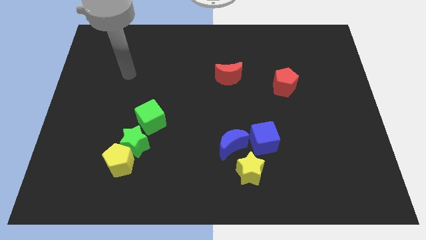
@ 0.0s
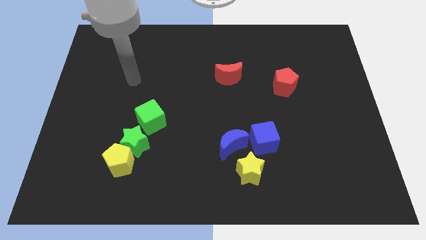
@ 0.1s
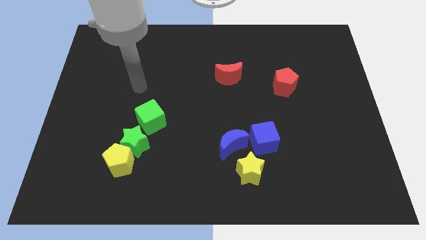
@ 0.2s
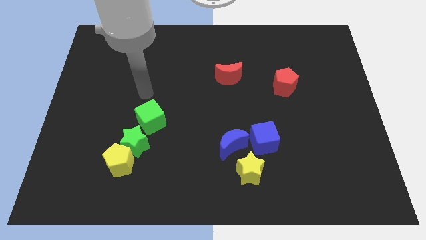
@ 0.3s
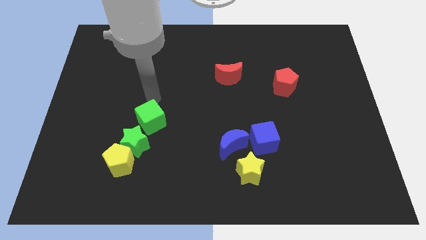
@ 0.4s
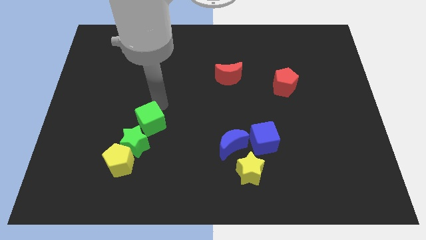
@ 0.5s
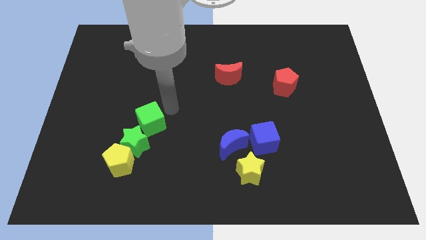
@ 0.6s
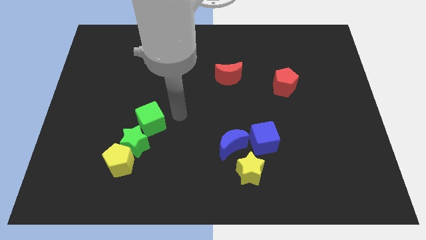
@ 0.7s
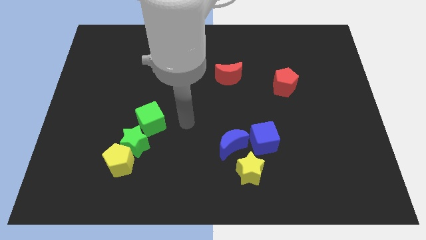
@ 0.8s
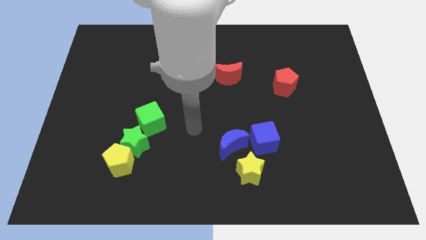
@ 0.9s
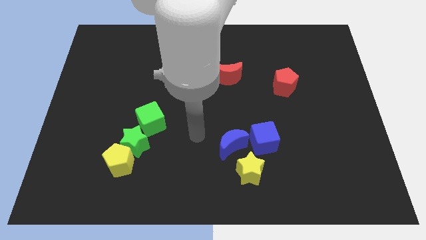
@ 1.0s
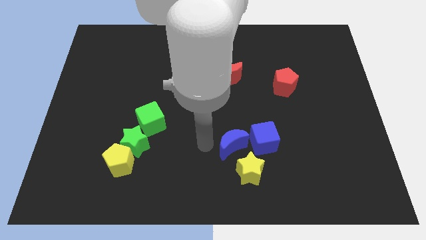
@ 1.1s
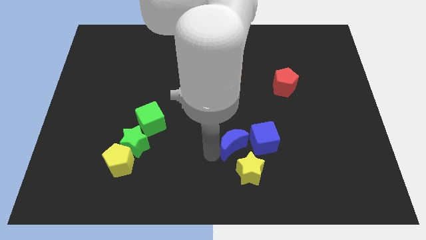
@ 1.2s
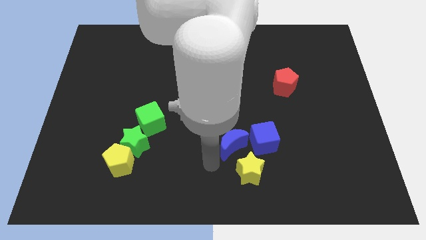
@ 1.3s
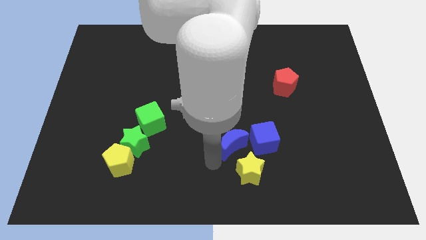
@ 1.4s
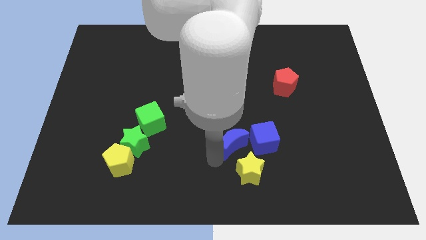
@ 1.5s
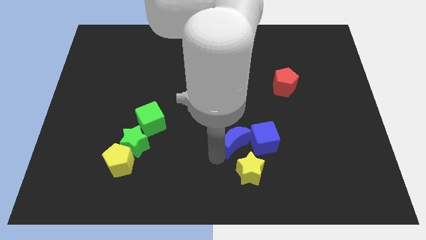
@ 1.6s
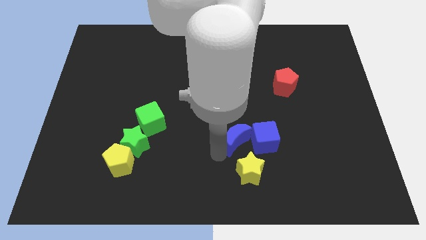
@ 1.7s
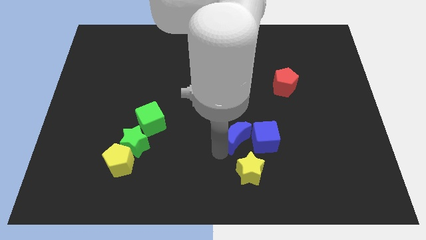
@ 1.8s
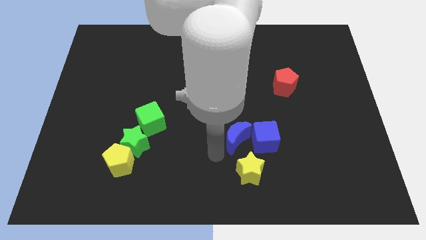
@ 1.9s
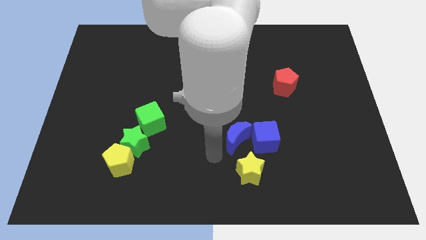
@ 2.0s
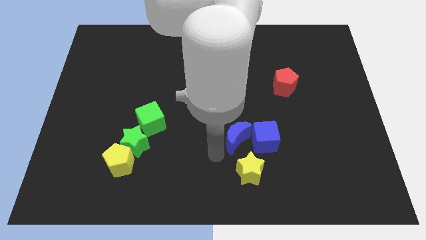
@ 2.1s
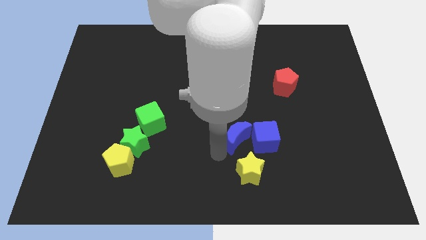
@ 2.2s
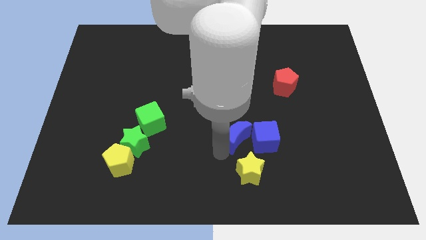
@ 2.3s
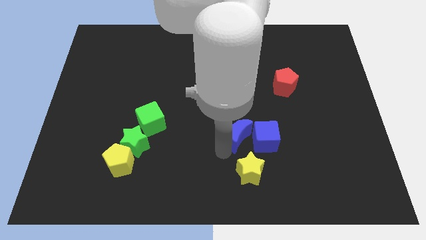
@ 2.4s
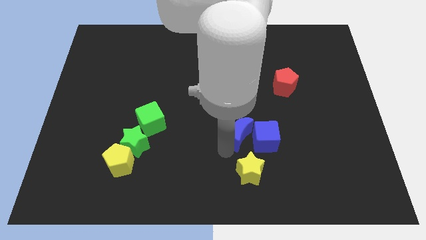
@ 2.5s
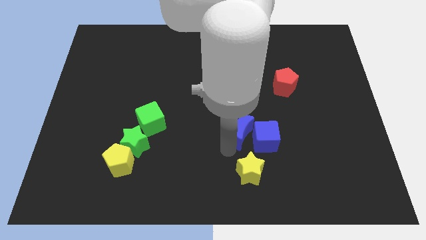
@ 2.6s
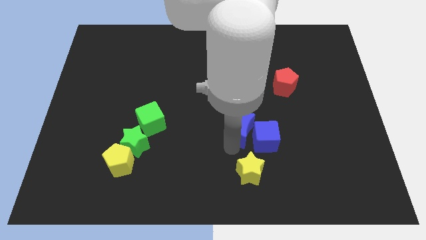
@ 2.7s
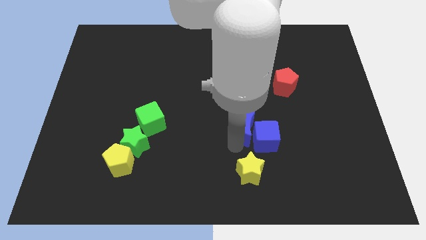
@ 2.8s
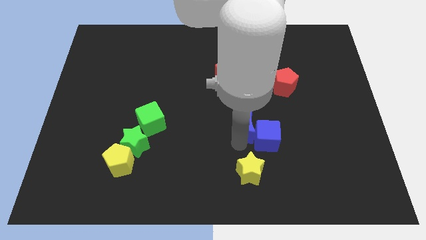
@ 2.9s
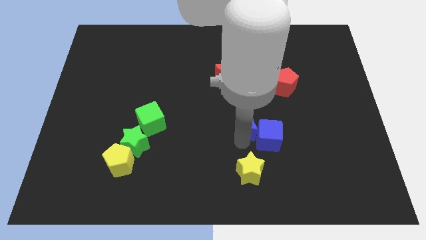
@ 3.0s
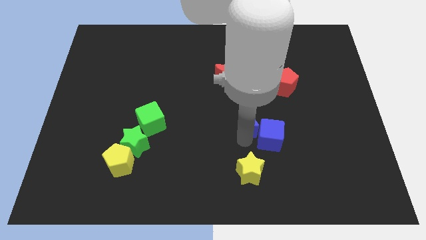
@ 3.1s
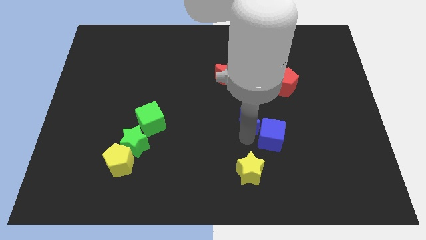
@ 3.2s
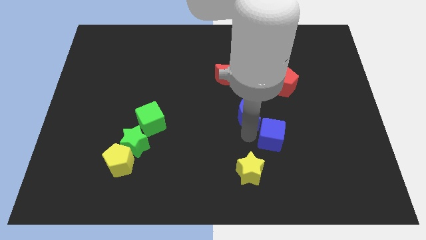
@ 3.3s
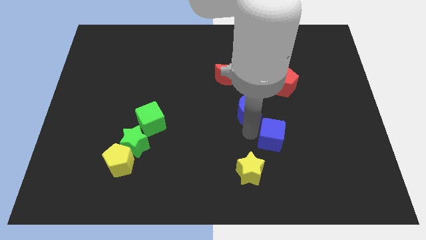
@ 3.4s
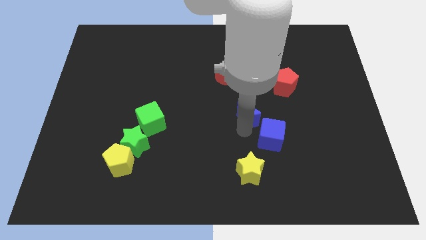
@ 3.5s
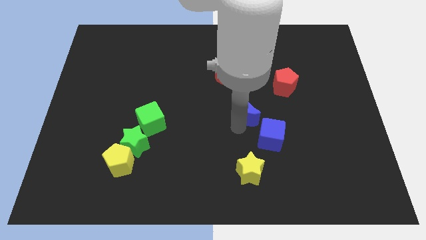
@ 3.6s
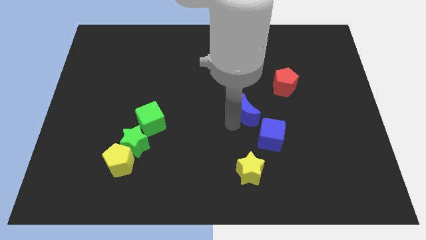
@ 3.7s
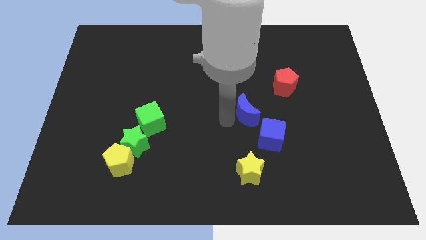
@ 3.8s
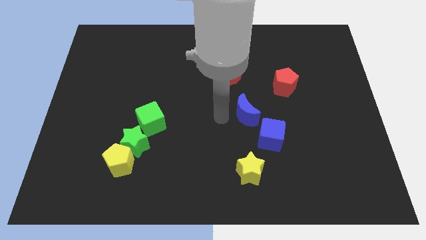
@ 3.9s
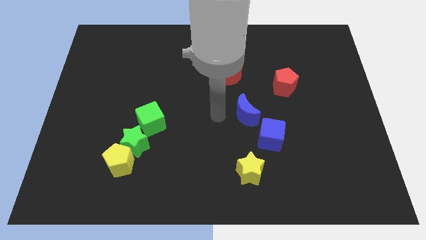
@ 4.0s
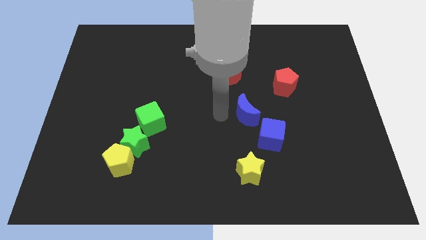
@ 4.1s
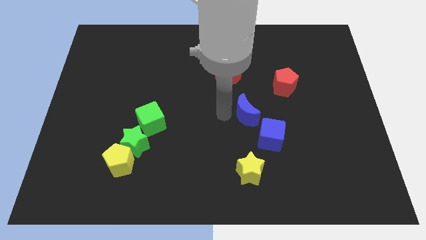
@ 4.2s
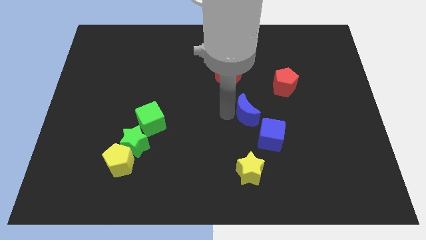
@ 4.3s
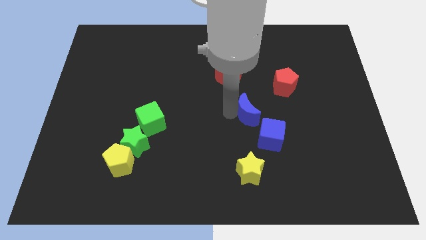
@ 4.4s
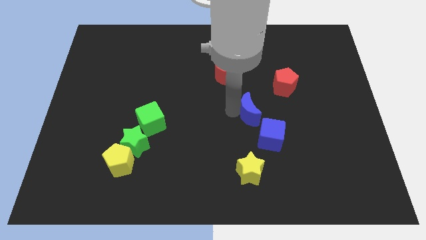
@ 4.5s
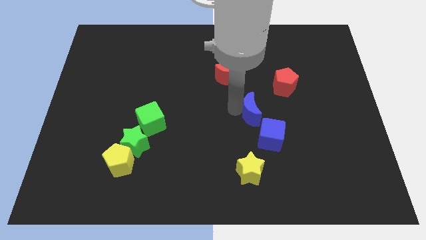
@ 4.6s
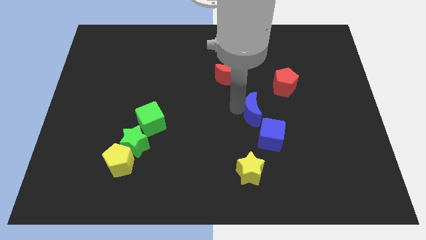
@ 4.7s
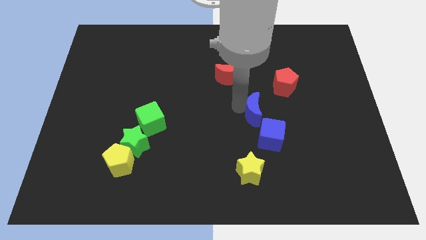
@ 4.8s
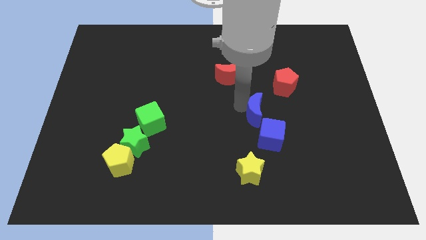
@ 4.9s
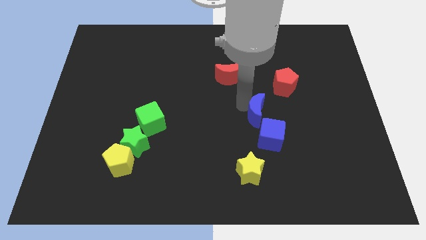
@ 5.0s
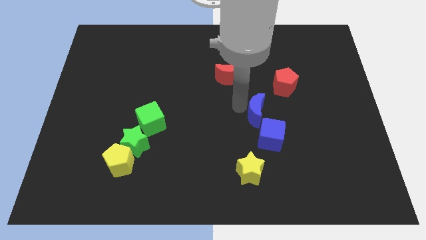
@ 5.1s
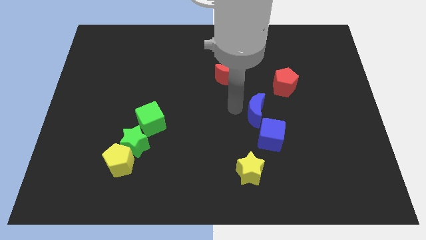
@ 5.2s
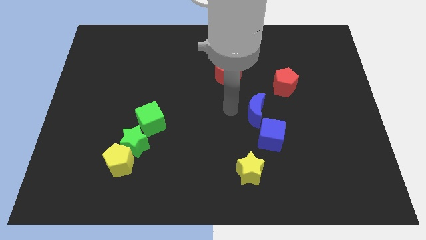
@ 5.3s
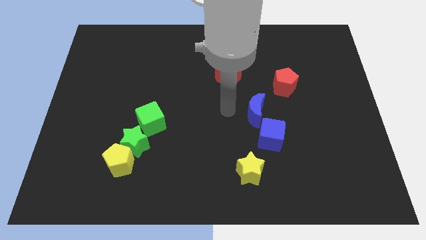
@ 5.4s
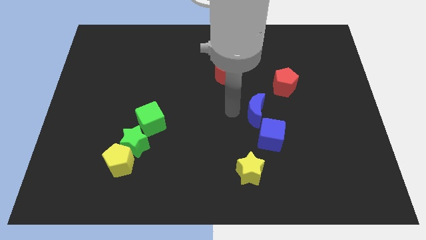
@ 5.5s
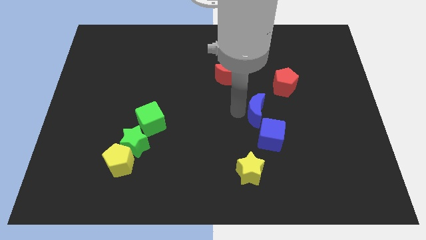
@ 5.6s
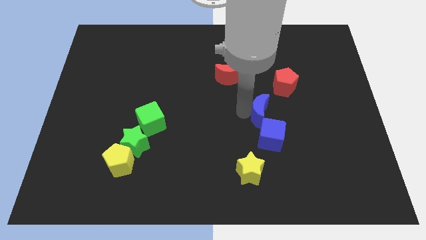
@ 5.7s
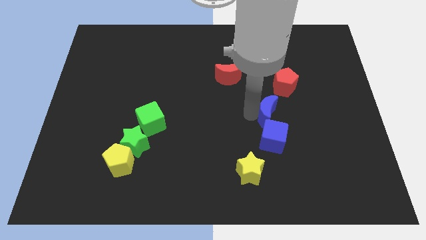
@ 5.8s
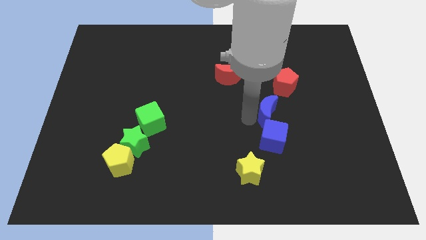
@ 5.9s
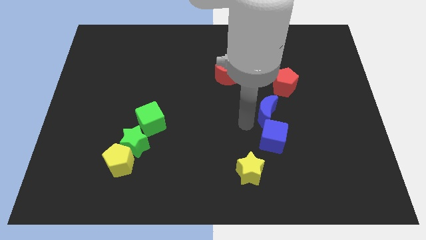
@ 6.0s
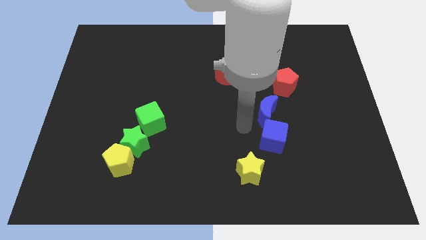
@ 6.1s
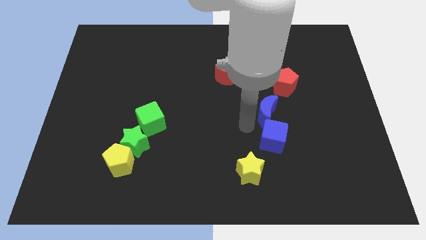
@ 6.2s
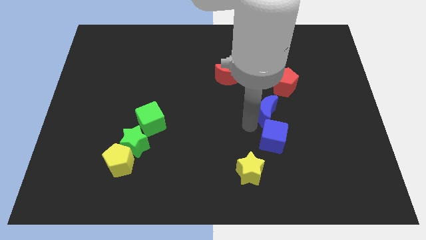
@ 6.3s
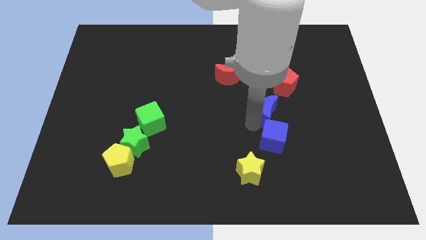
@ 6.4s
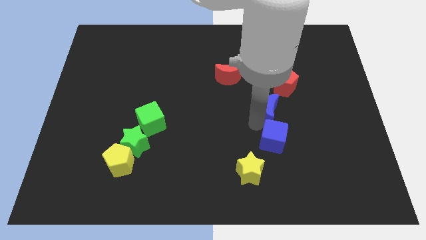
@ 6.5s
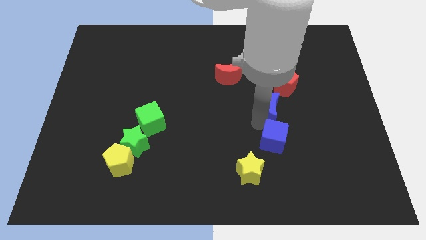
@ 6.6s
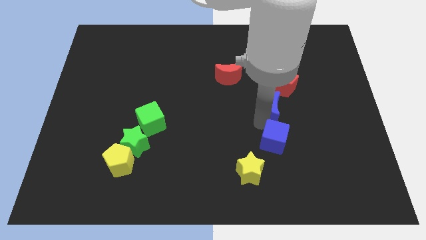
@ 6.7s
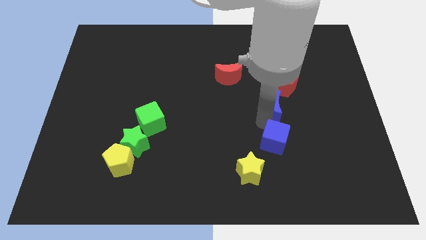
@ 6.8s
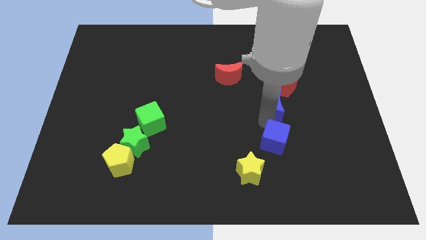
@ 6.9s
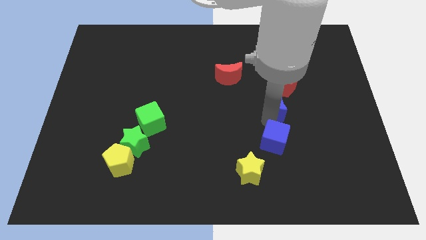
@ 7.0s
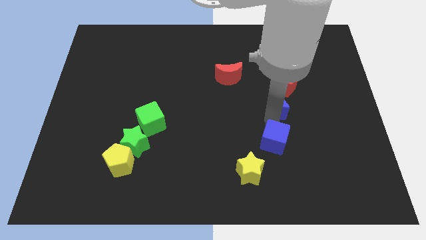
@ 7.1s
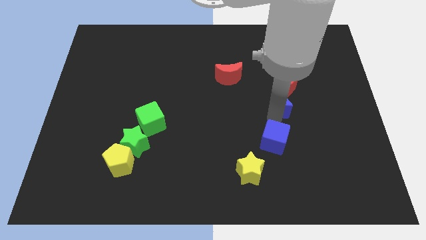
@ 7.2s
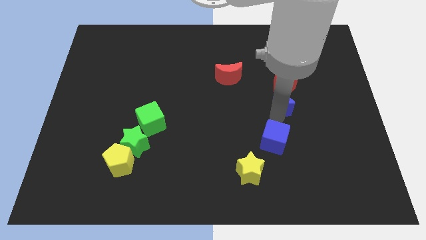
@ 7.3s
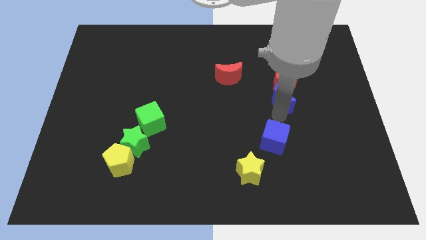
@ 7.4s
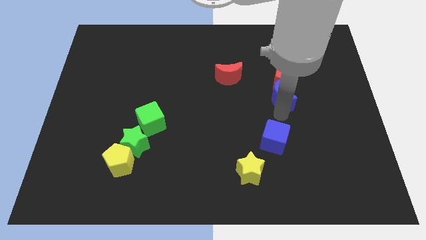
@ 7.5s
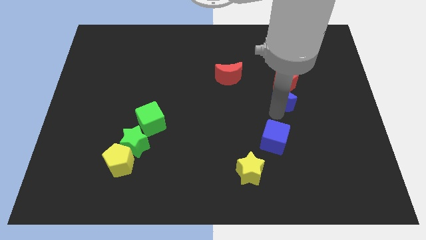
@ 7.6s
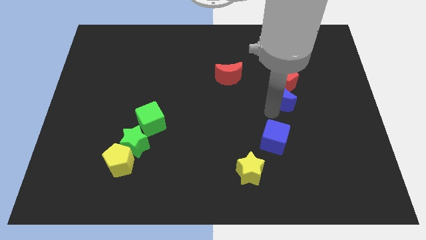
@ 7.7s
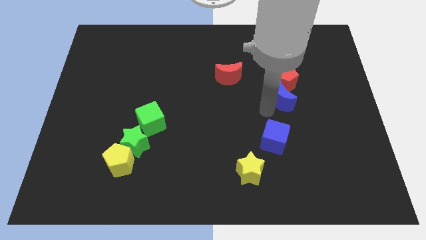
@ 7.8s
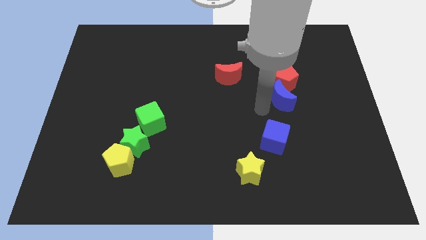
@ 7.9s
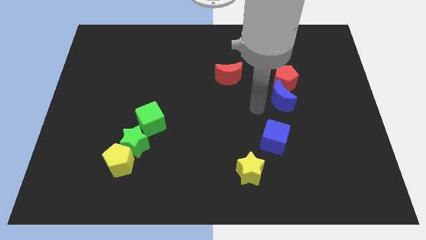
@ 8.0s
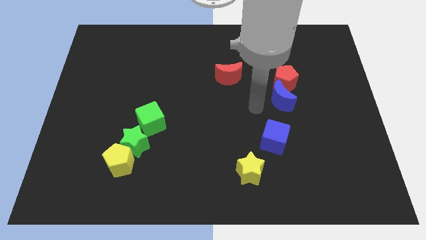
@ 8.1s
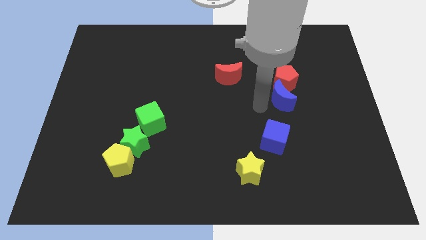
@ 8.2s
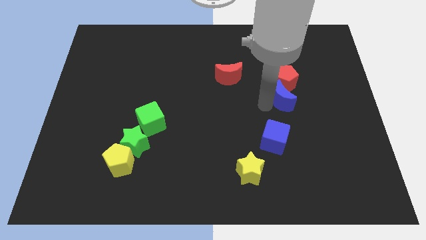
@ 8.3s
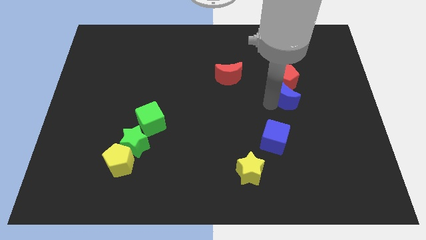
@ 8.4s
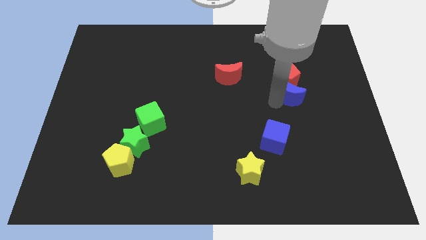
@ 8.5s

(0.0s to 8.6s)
move the blue moon up and then to the right

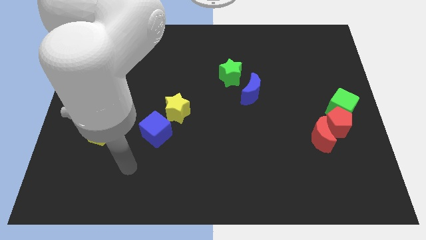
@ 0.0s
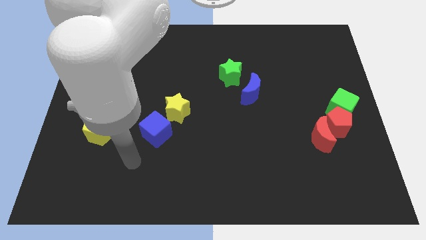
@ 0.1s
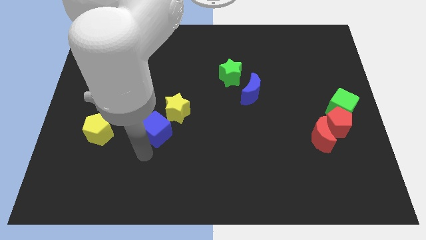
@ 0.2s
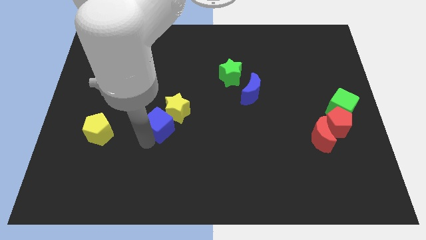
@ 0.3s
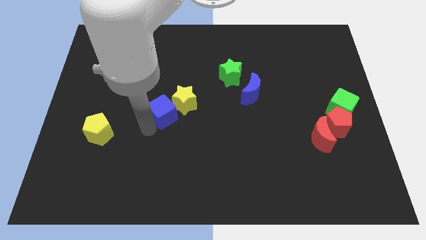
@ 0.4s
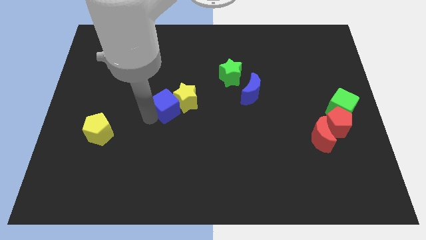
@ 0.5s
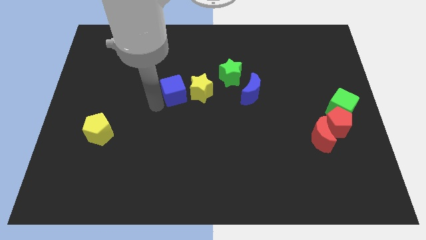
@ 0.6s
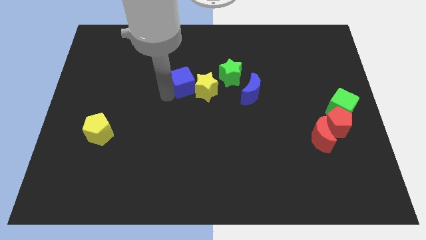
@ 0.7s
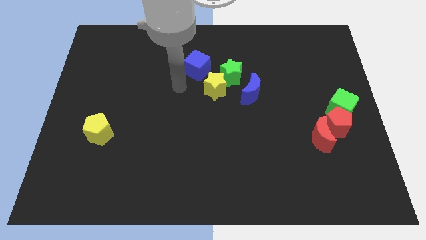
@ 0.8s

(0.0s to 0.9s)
push the yellow star a little right
